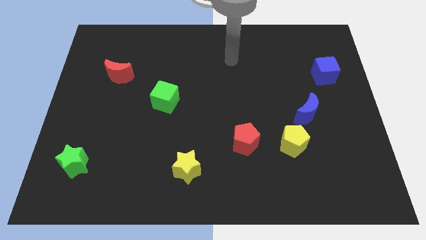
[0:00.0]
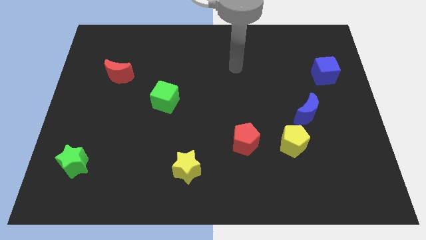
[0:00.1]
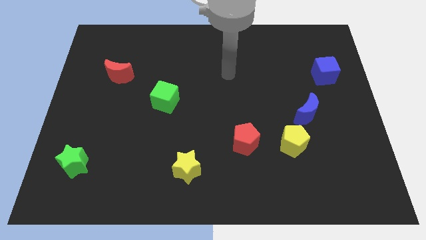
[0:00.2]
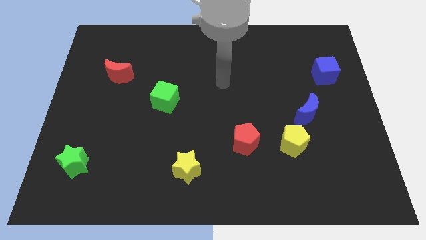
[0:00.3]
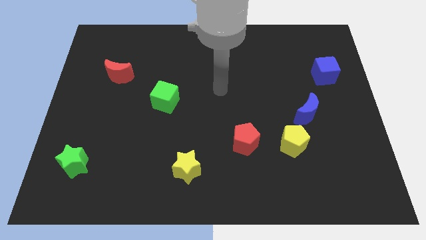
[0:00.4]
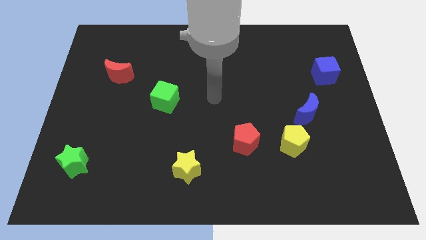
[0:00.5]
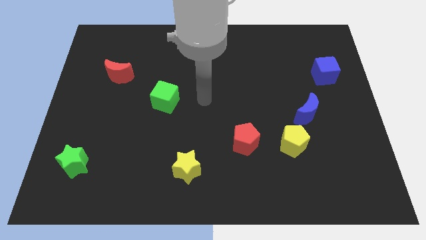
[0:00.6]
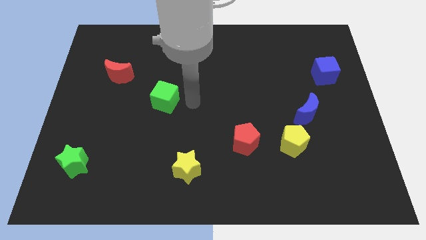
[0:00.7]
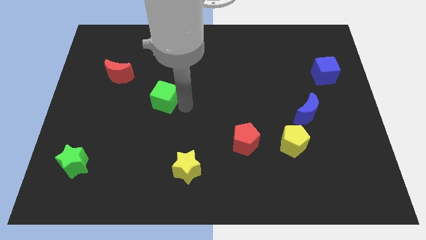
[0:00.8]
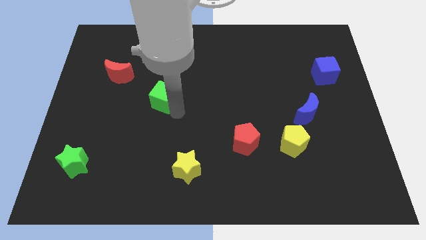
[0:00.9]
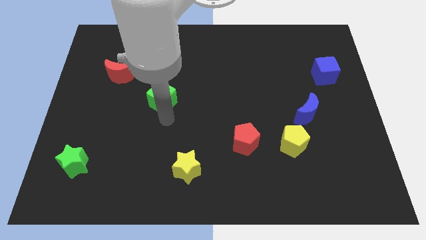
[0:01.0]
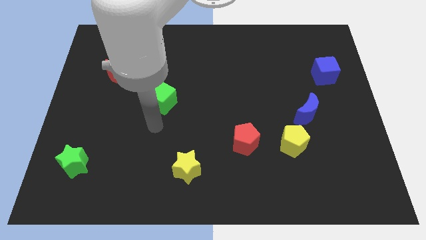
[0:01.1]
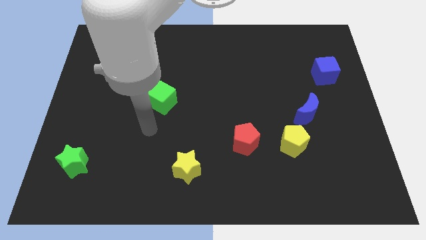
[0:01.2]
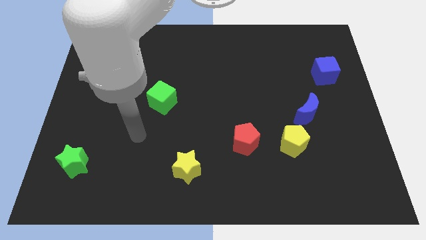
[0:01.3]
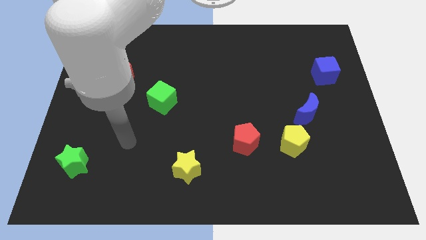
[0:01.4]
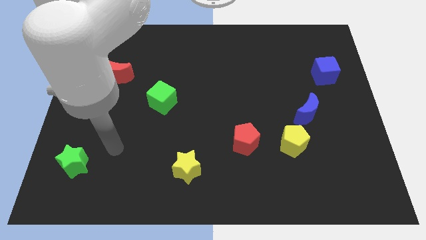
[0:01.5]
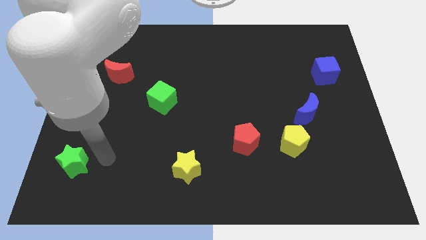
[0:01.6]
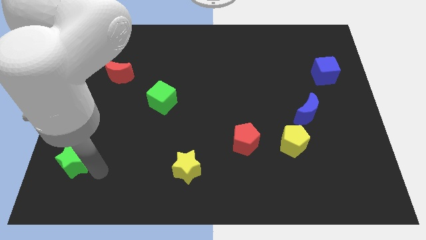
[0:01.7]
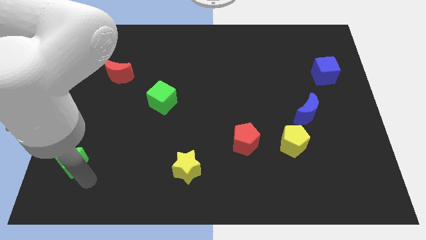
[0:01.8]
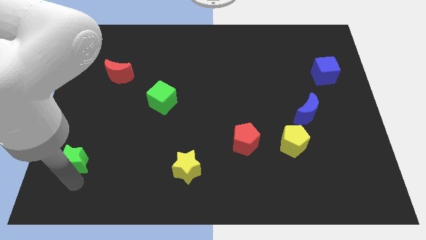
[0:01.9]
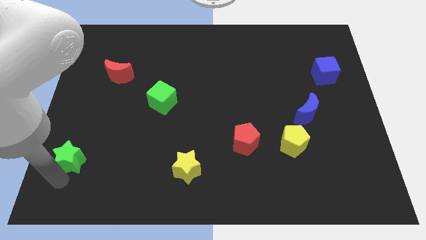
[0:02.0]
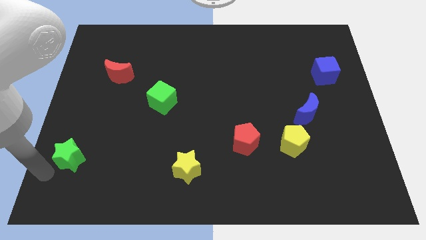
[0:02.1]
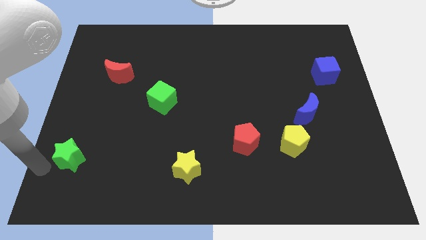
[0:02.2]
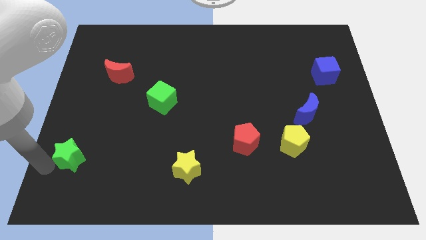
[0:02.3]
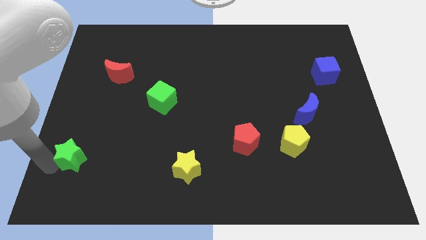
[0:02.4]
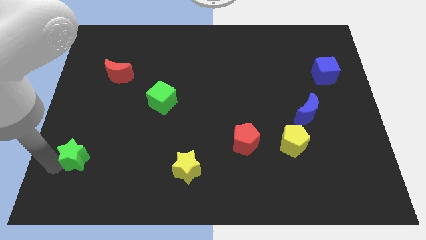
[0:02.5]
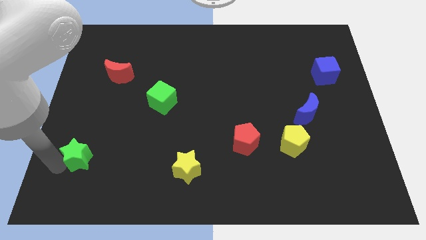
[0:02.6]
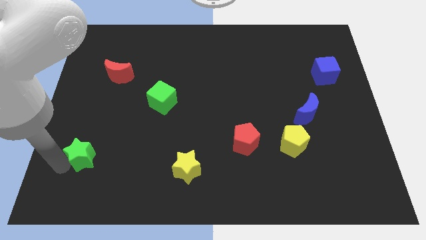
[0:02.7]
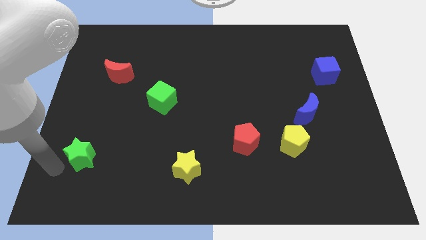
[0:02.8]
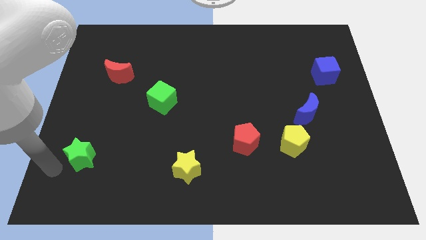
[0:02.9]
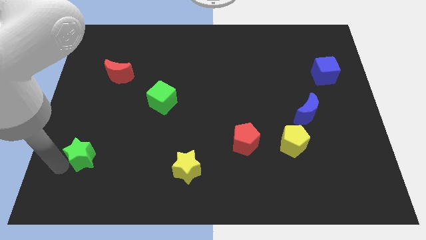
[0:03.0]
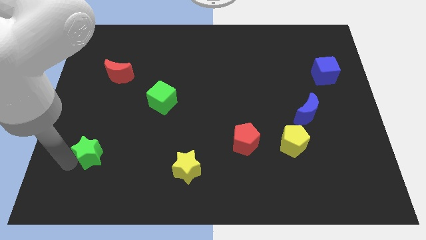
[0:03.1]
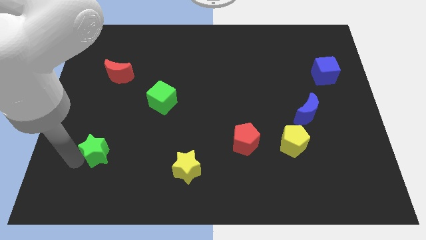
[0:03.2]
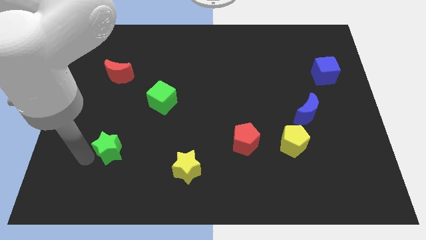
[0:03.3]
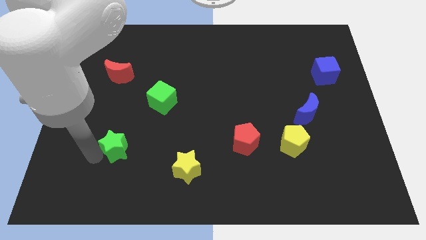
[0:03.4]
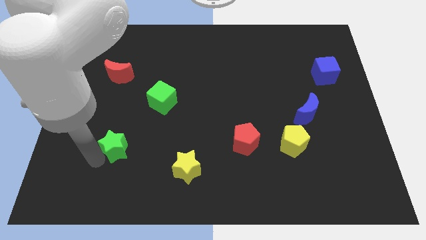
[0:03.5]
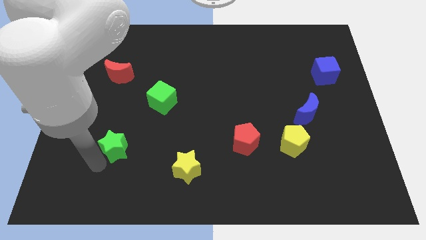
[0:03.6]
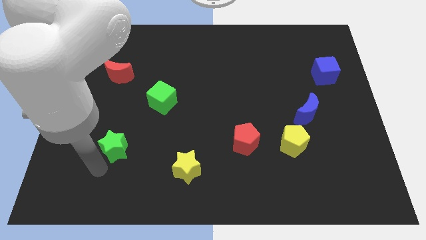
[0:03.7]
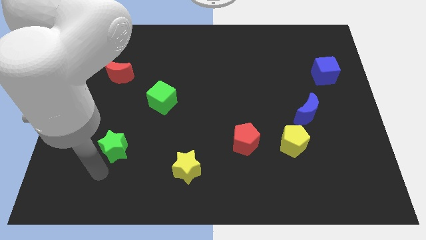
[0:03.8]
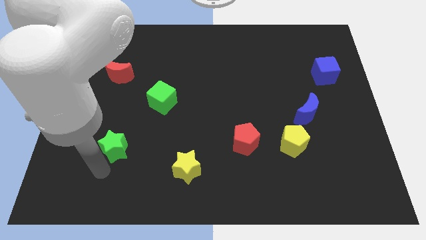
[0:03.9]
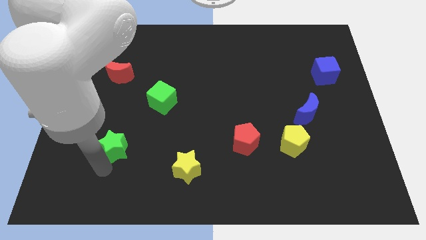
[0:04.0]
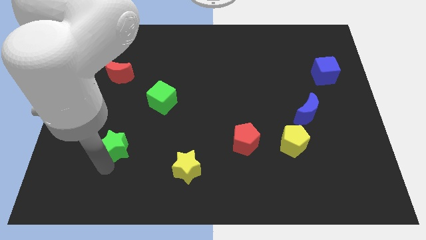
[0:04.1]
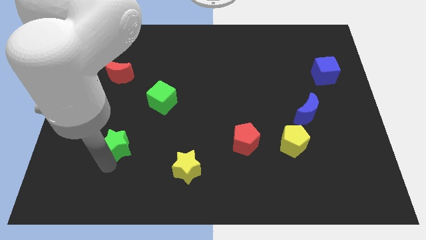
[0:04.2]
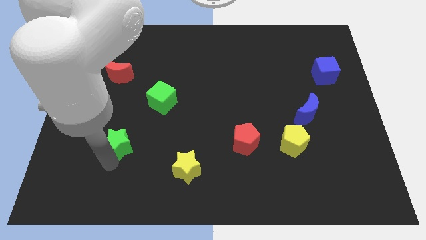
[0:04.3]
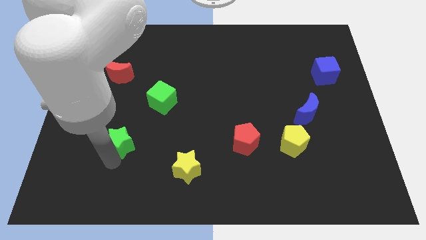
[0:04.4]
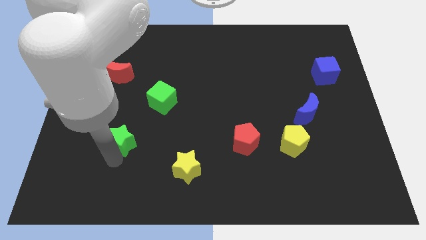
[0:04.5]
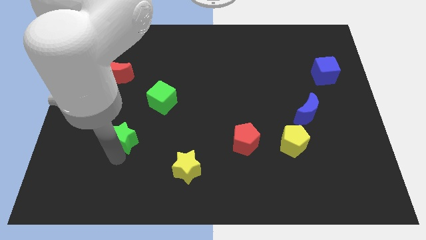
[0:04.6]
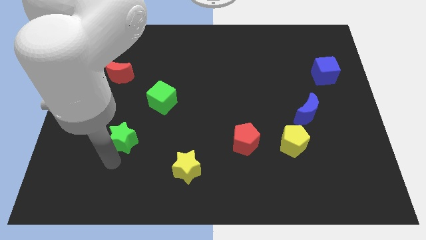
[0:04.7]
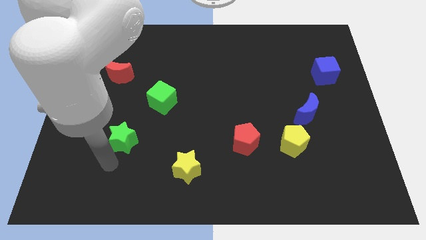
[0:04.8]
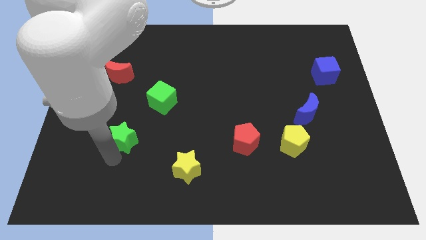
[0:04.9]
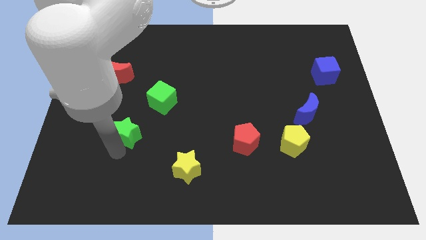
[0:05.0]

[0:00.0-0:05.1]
slide the green star to the bottom left side of the green cube

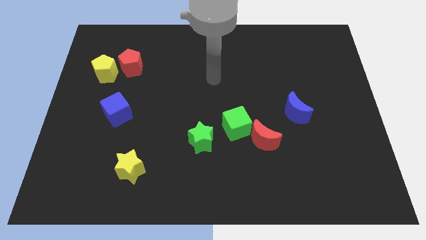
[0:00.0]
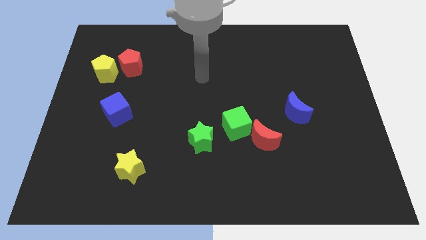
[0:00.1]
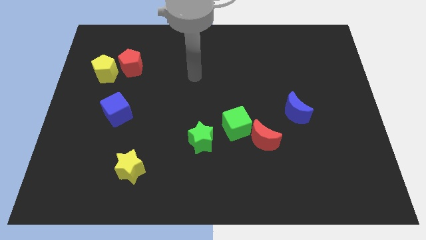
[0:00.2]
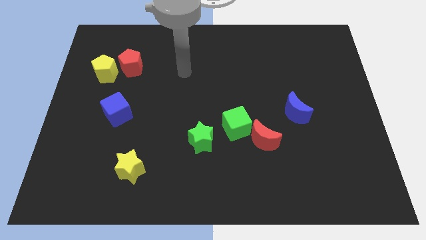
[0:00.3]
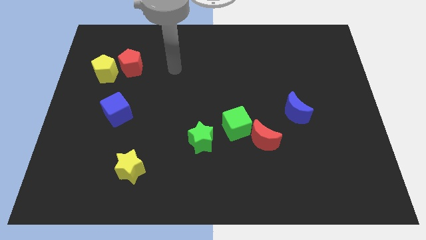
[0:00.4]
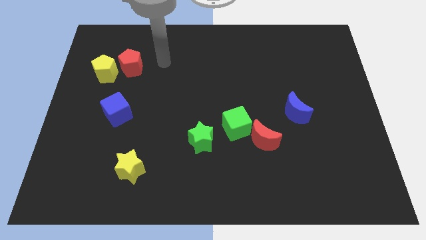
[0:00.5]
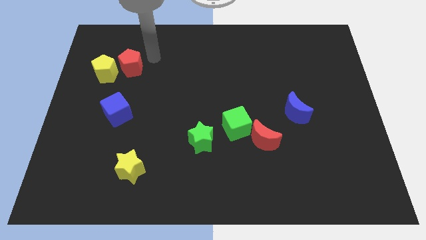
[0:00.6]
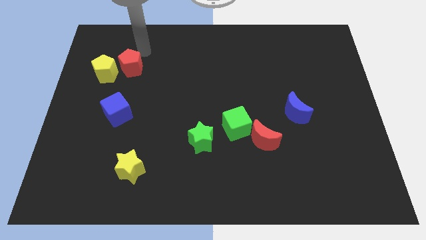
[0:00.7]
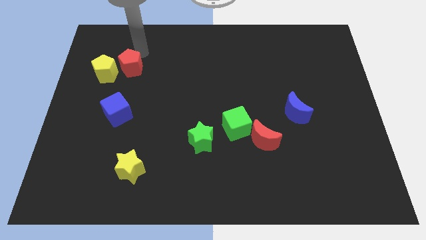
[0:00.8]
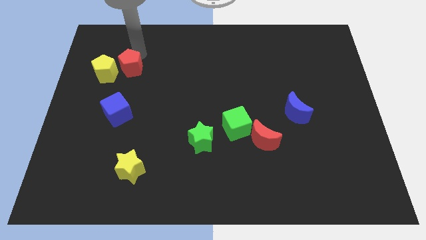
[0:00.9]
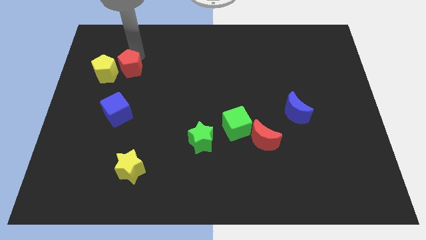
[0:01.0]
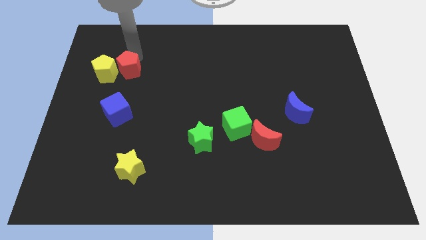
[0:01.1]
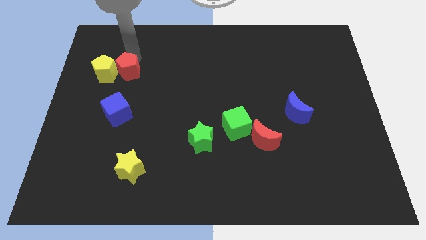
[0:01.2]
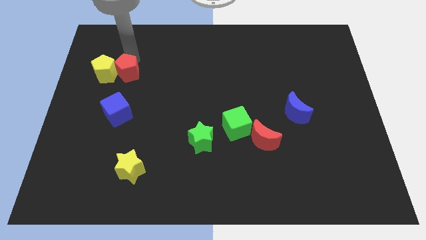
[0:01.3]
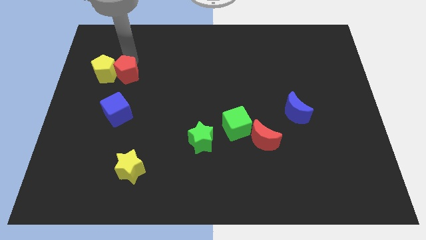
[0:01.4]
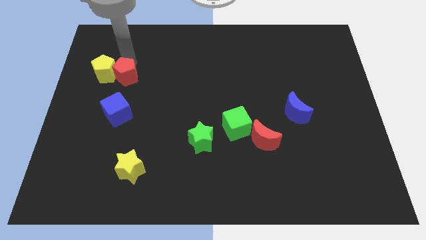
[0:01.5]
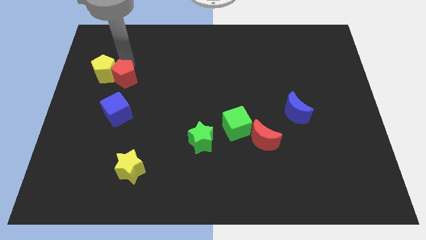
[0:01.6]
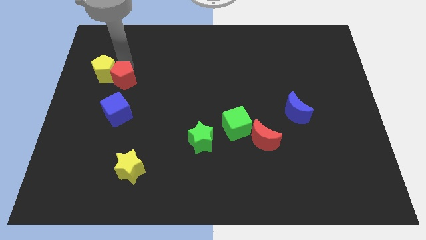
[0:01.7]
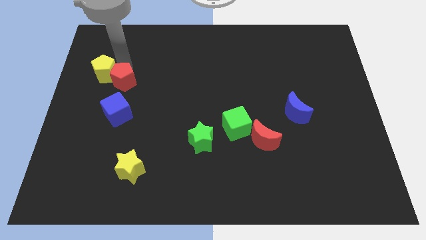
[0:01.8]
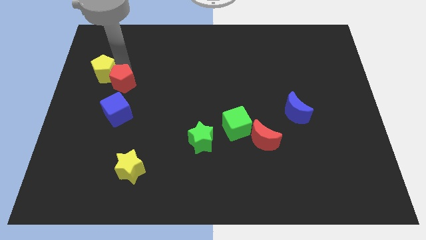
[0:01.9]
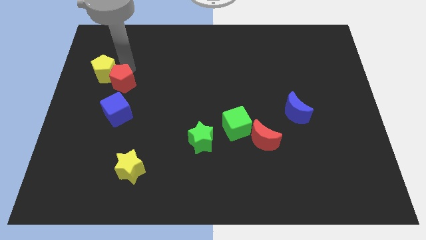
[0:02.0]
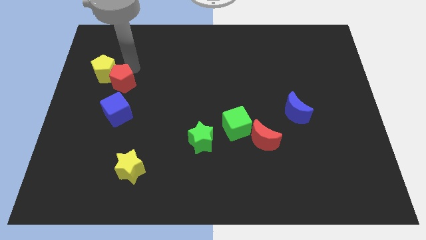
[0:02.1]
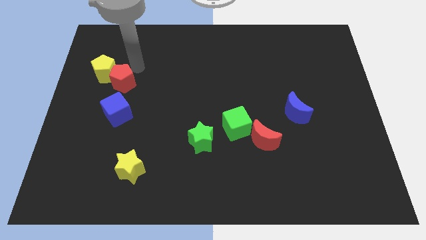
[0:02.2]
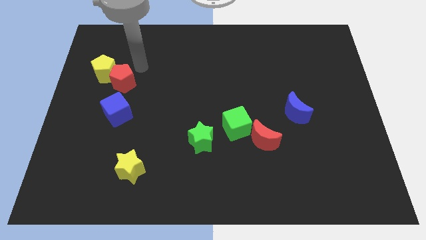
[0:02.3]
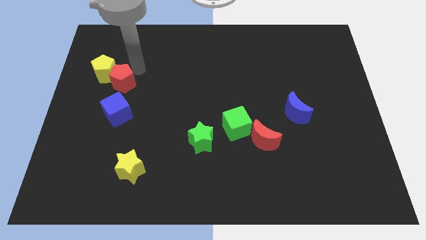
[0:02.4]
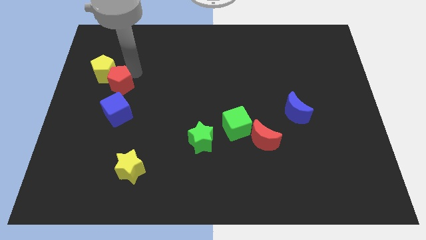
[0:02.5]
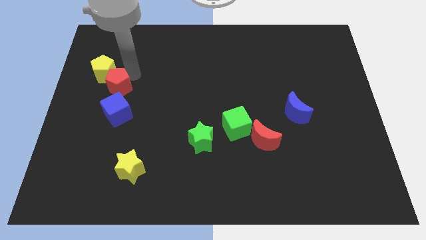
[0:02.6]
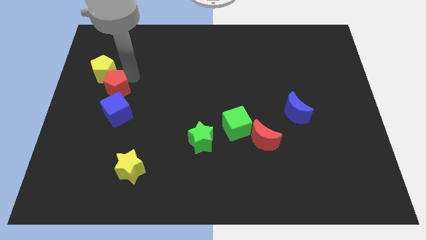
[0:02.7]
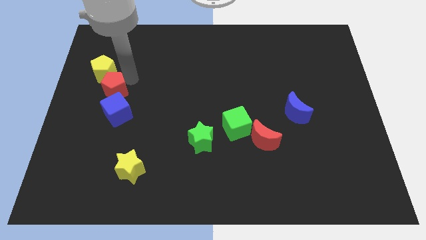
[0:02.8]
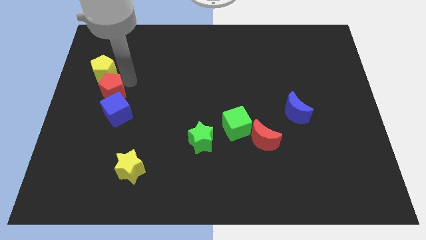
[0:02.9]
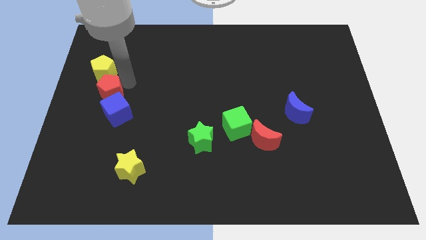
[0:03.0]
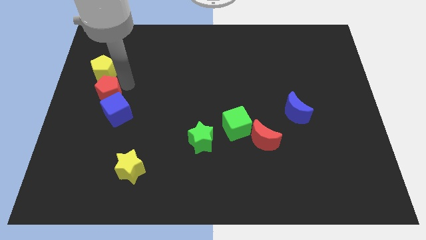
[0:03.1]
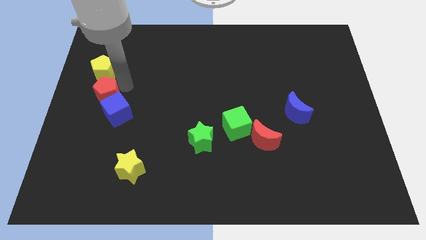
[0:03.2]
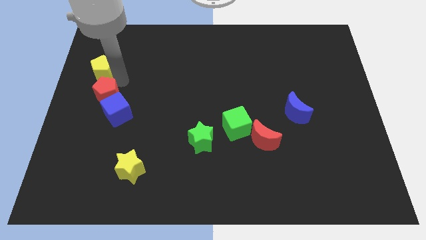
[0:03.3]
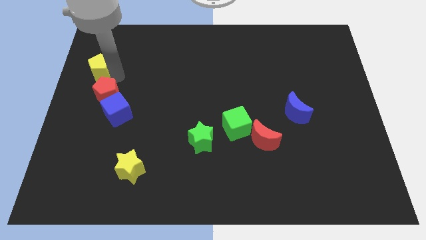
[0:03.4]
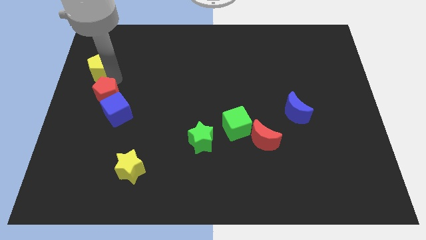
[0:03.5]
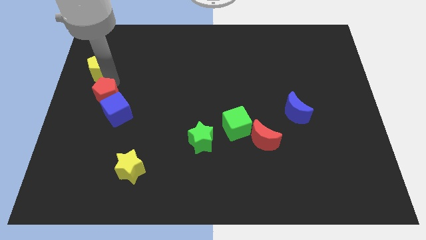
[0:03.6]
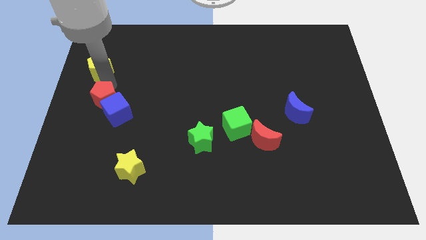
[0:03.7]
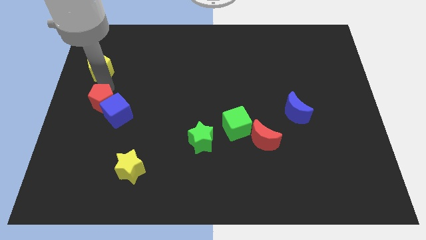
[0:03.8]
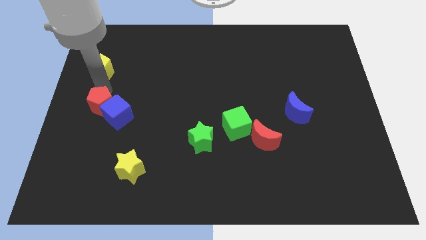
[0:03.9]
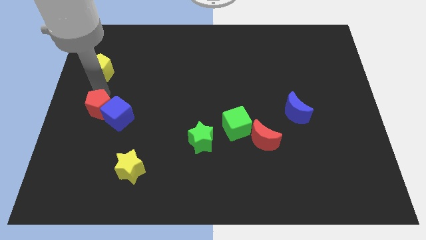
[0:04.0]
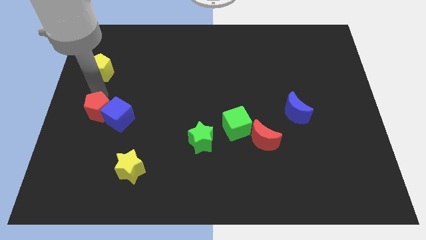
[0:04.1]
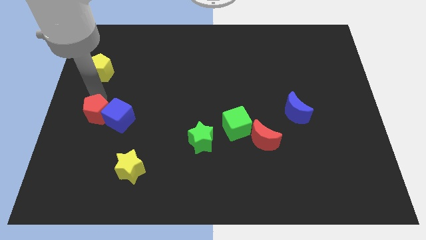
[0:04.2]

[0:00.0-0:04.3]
put the red pentagon diagonally down and to the left of the blue cube
